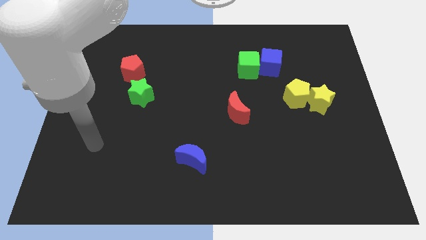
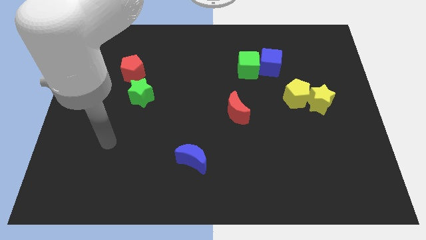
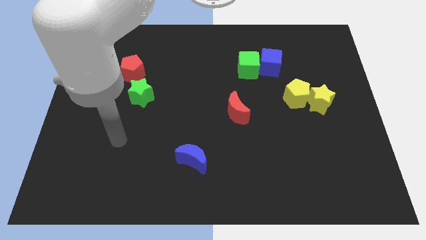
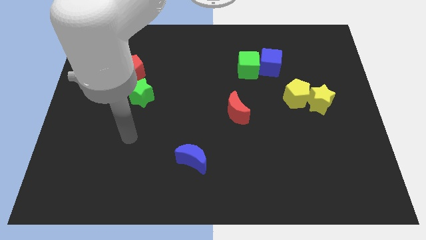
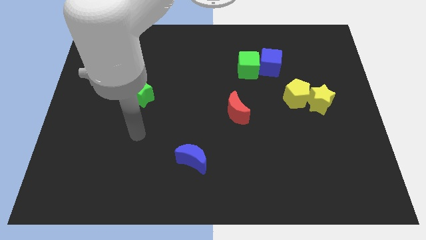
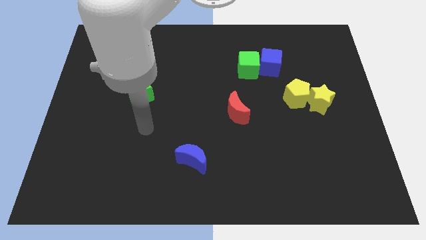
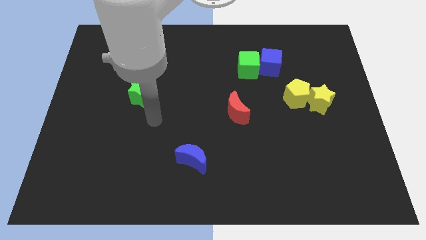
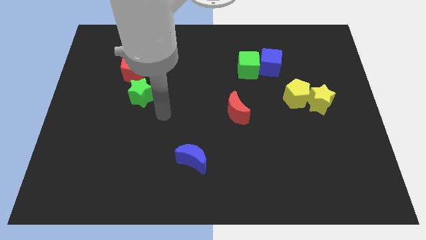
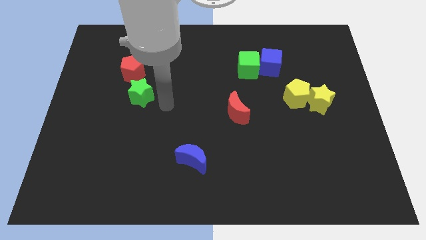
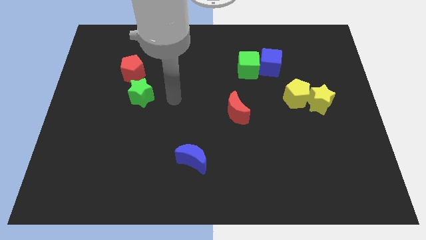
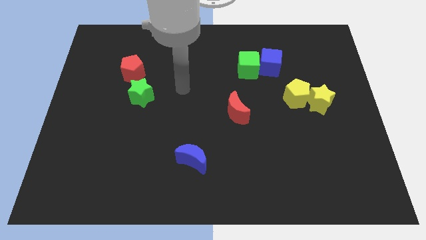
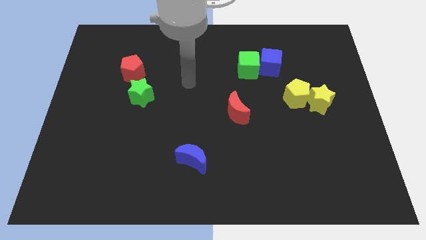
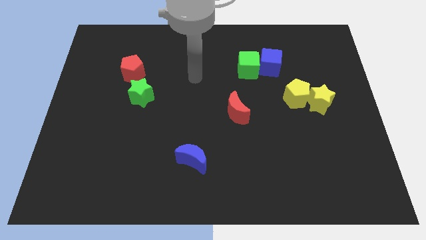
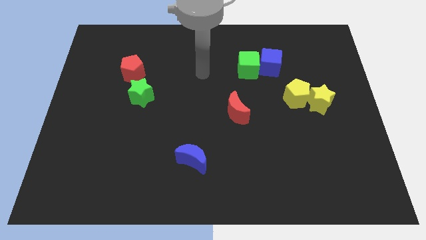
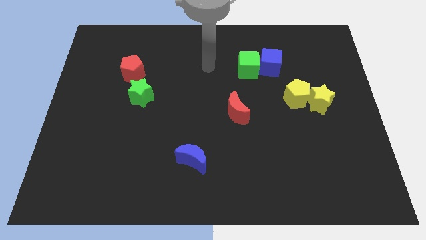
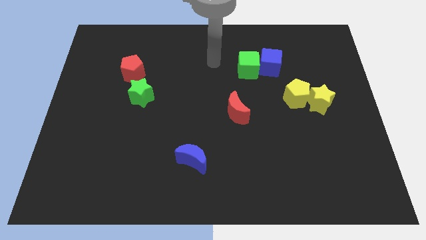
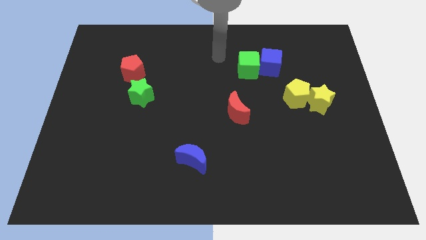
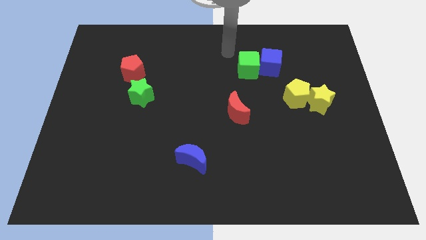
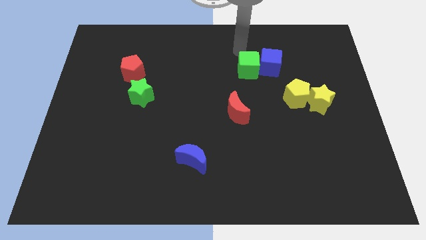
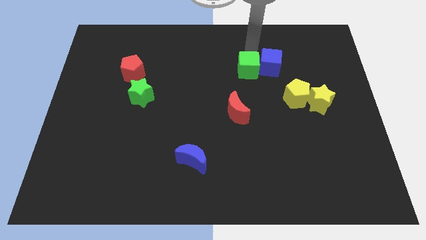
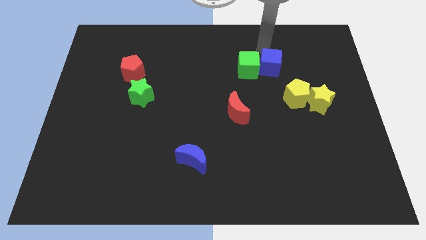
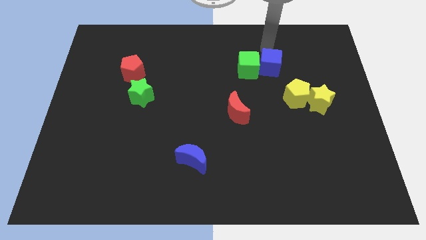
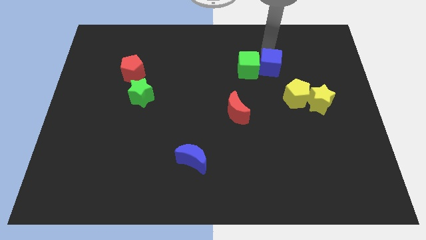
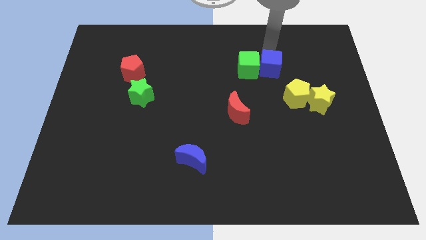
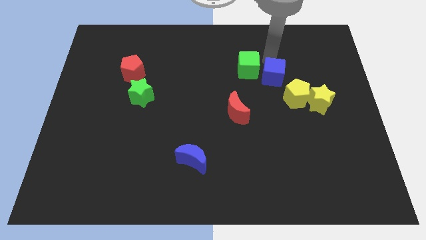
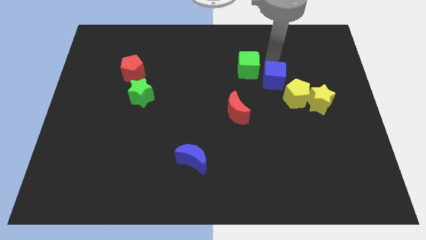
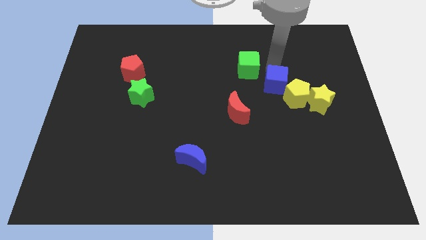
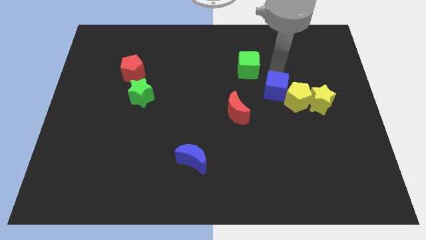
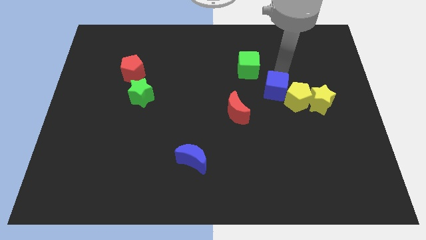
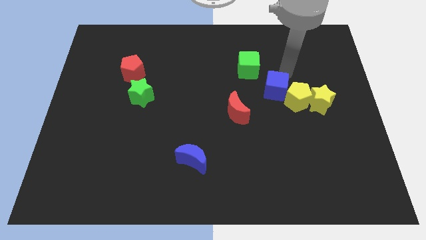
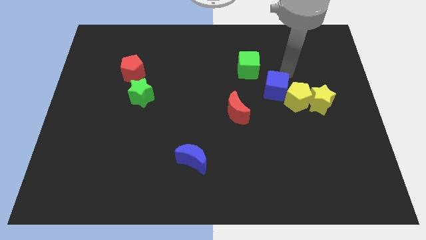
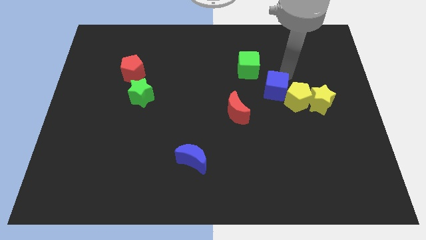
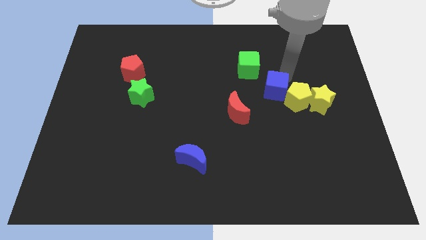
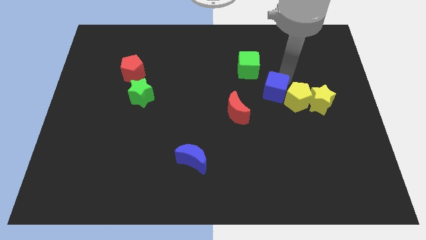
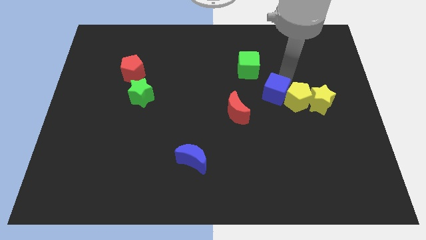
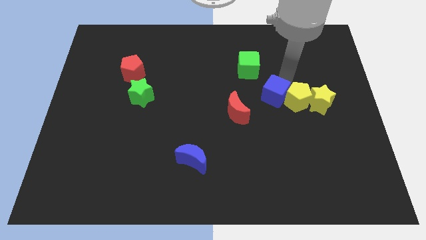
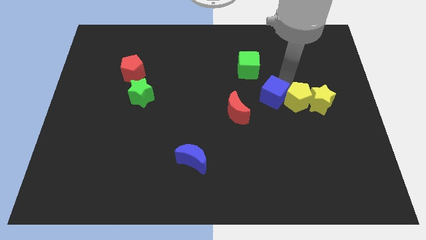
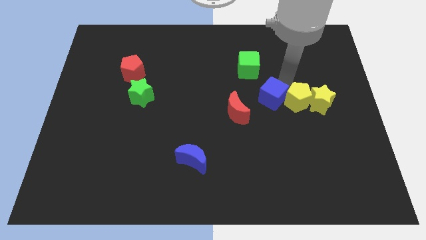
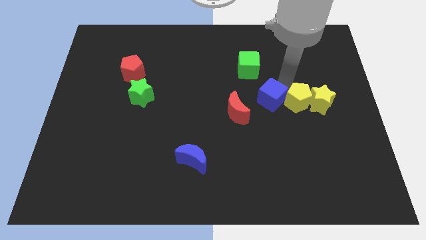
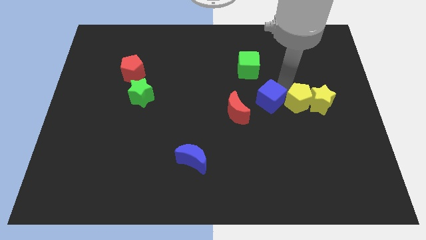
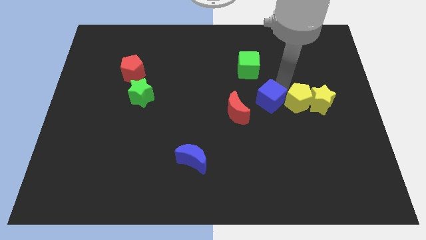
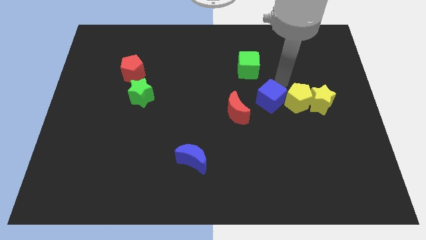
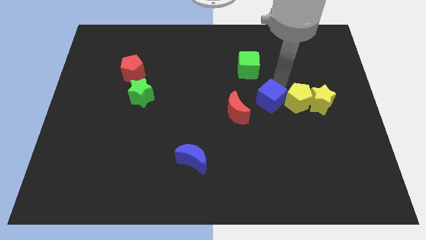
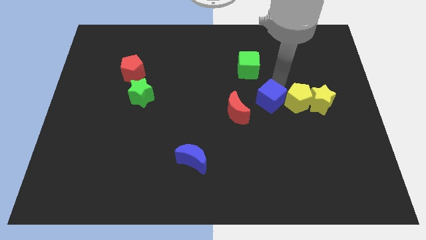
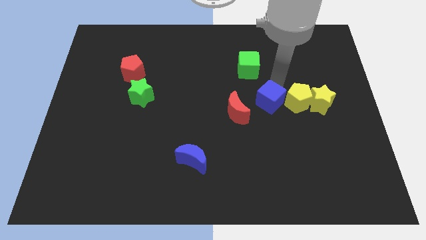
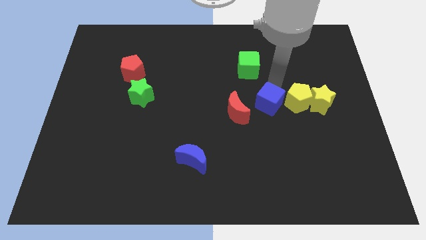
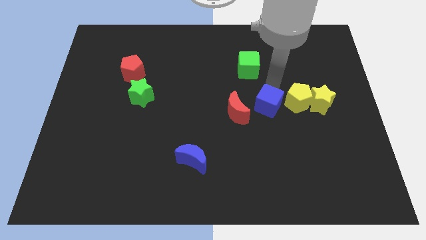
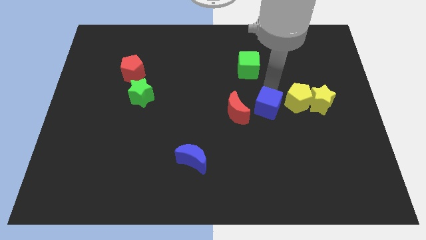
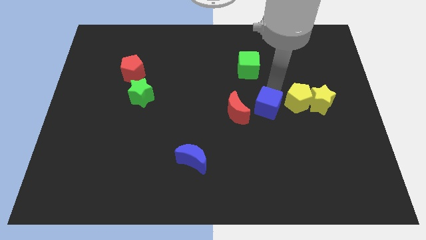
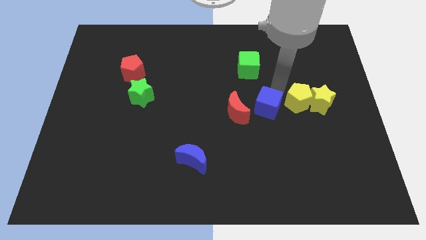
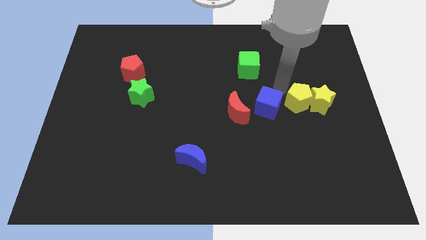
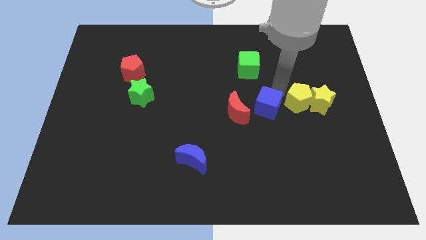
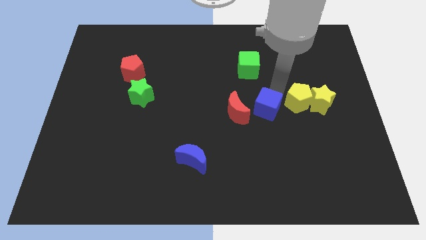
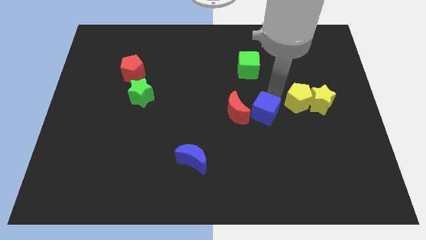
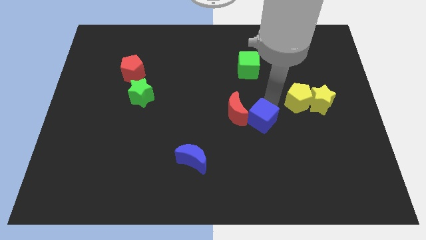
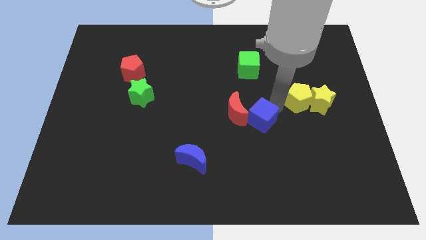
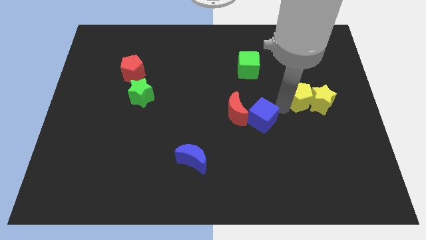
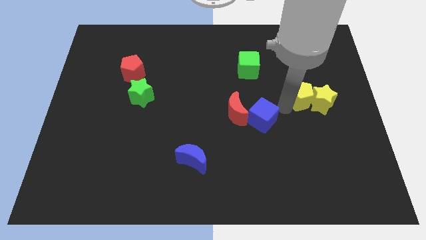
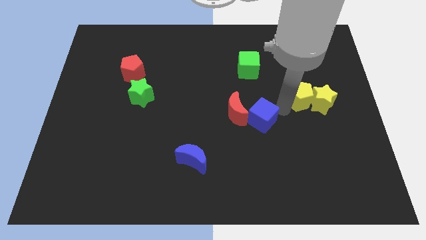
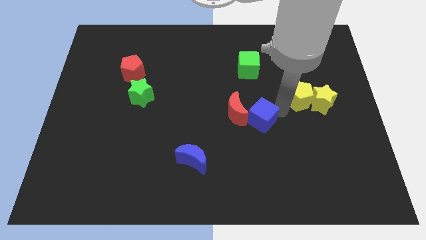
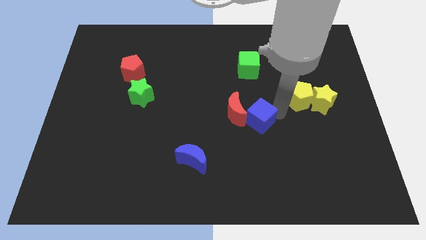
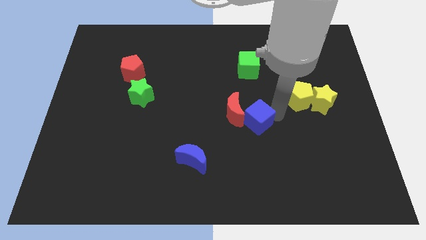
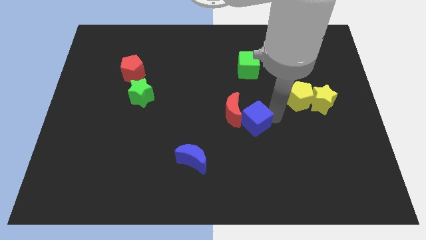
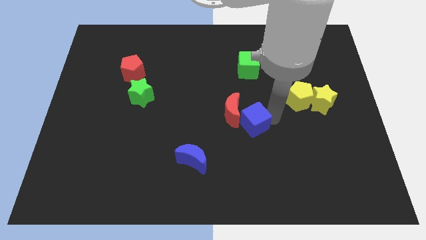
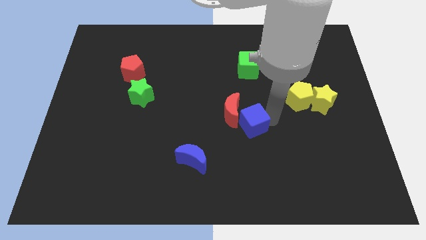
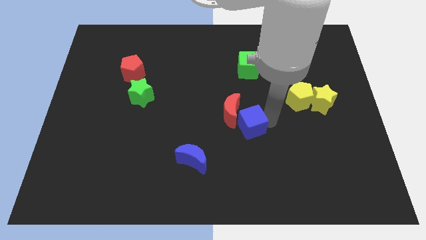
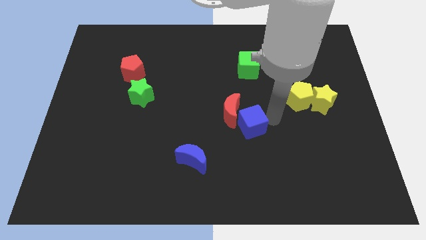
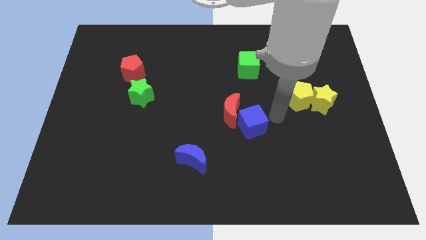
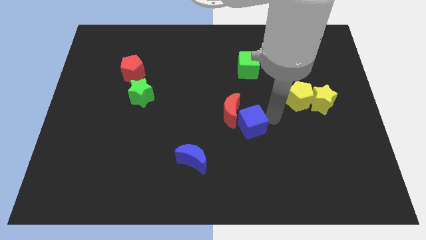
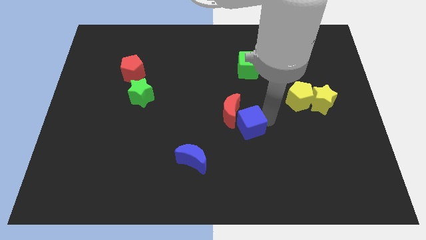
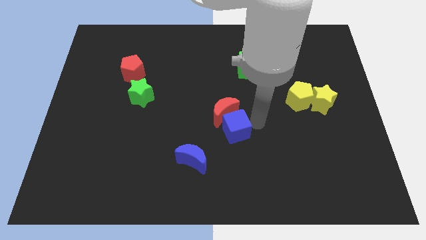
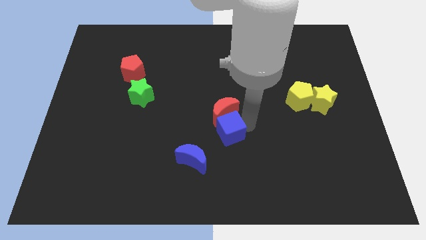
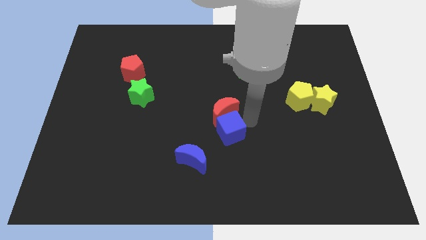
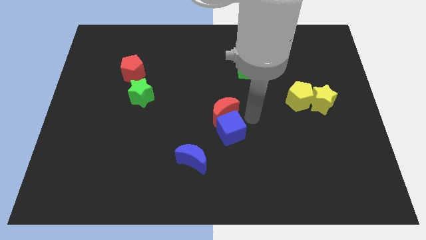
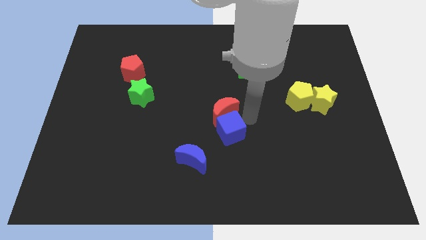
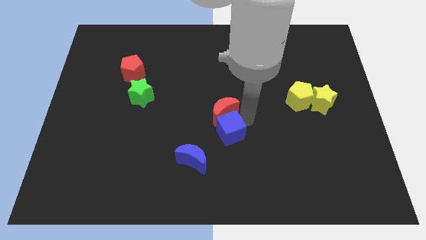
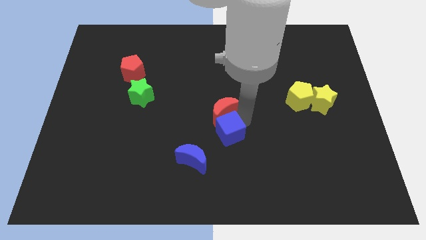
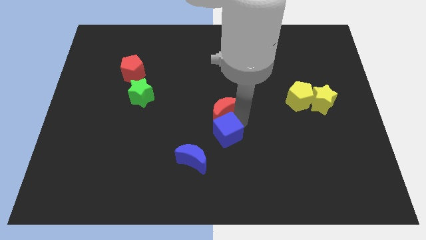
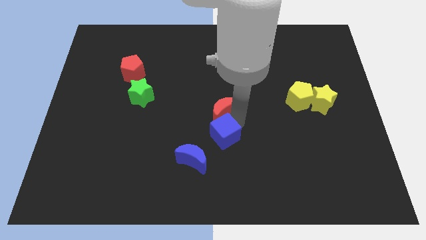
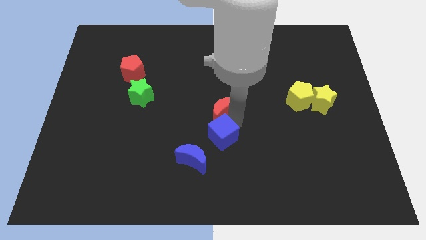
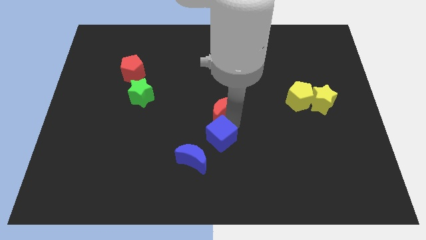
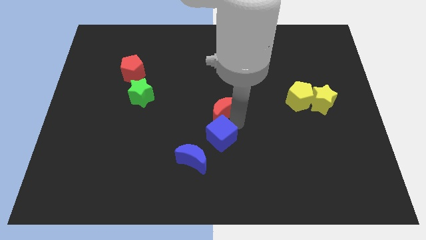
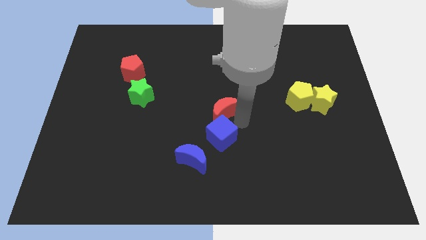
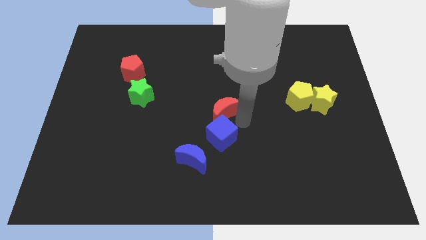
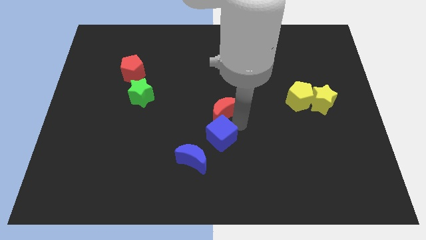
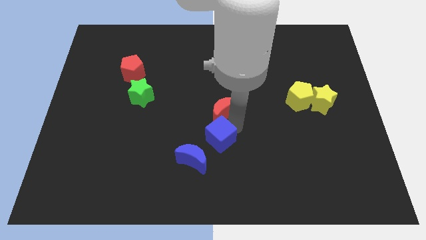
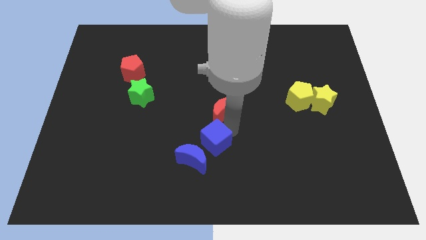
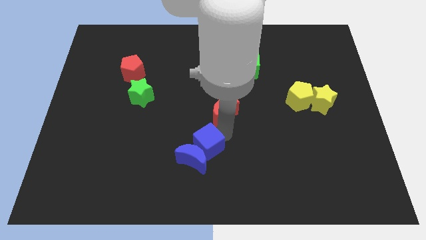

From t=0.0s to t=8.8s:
slide the blue cube next to the blue moon
